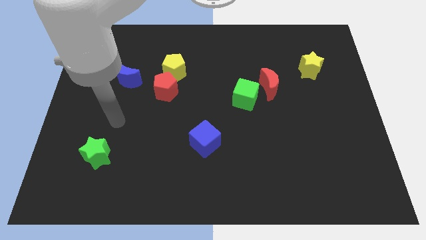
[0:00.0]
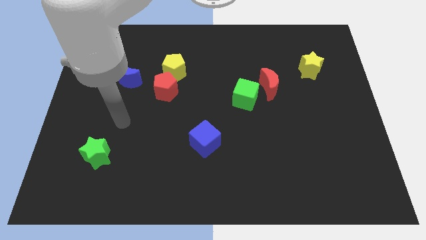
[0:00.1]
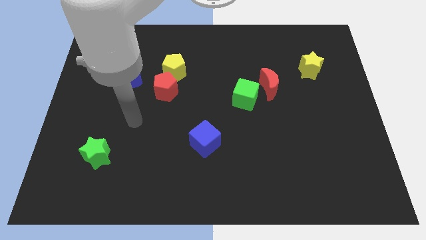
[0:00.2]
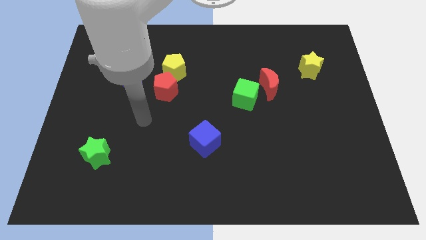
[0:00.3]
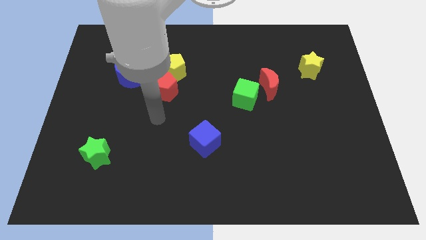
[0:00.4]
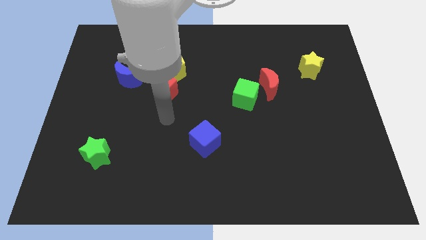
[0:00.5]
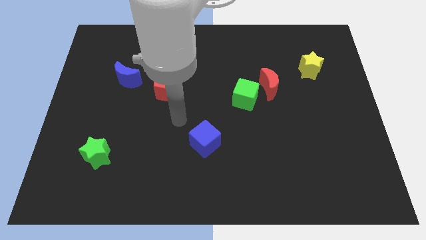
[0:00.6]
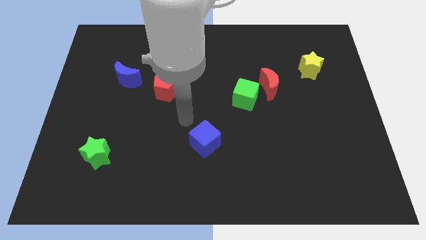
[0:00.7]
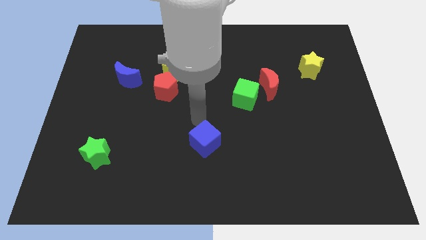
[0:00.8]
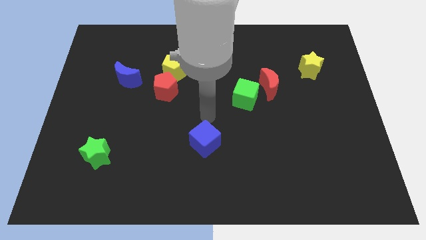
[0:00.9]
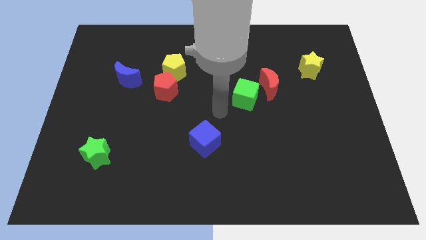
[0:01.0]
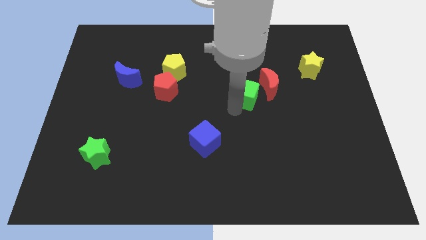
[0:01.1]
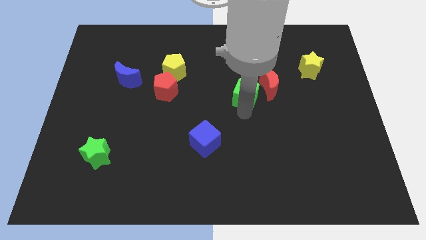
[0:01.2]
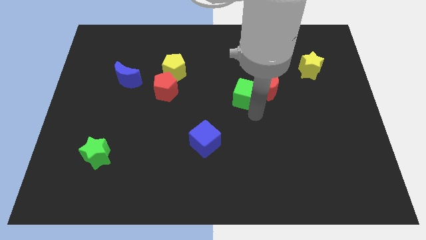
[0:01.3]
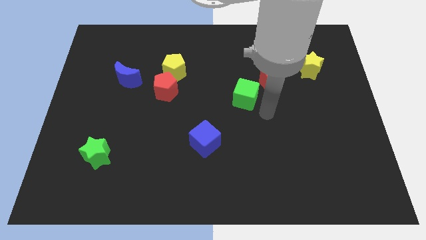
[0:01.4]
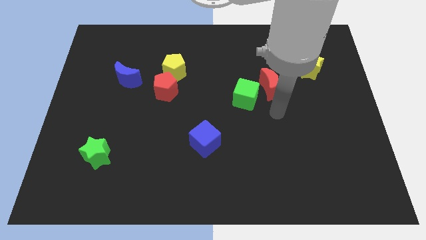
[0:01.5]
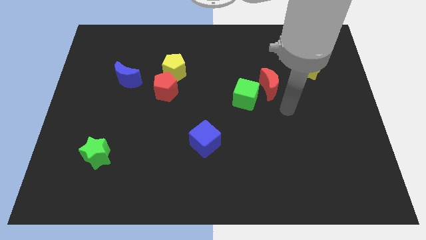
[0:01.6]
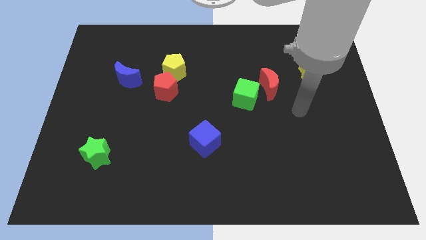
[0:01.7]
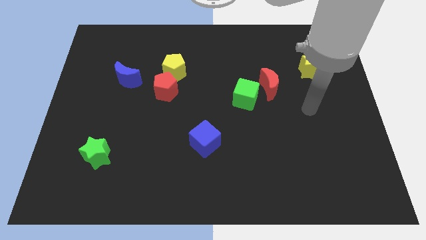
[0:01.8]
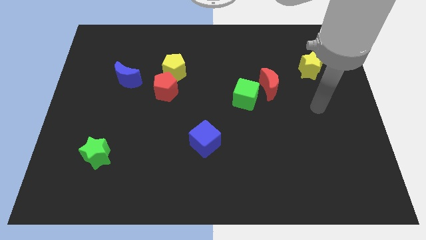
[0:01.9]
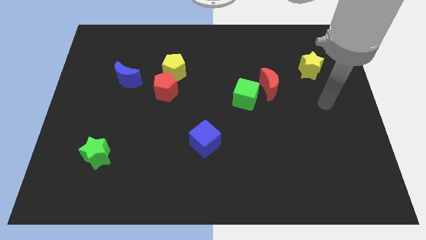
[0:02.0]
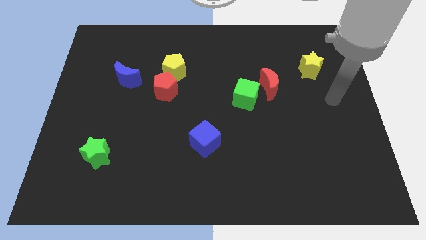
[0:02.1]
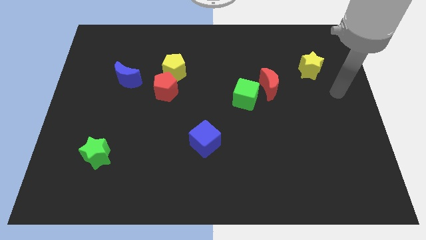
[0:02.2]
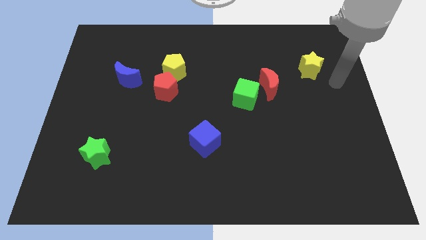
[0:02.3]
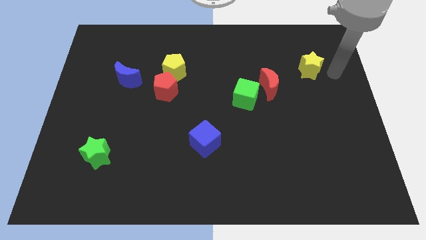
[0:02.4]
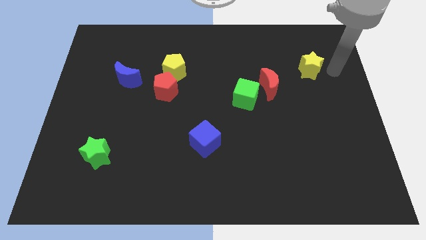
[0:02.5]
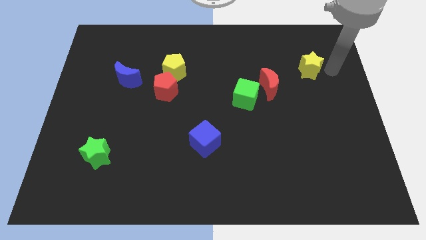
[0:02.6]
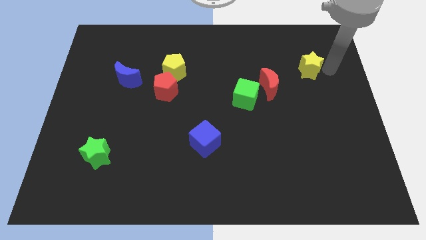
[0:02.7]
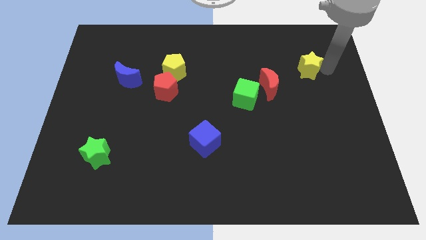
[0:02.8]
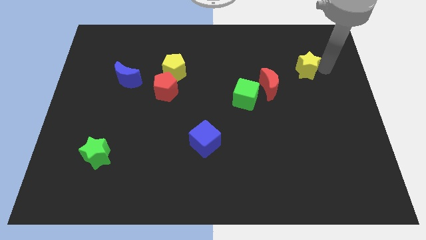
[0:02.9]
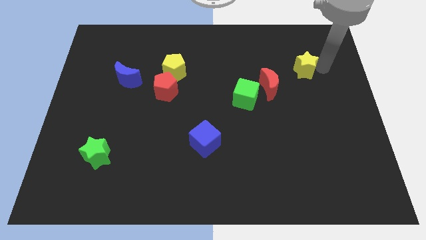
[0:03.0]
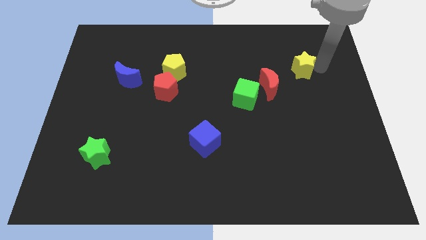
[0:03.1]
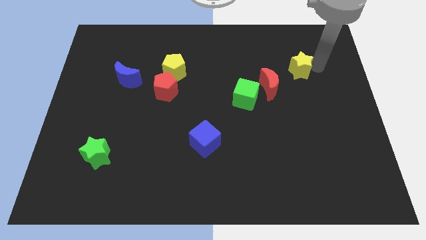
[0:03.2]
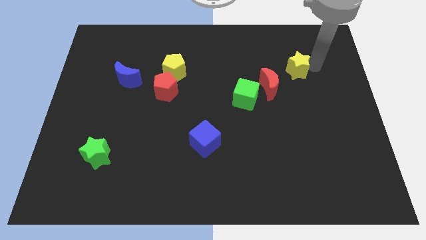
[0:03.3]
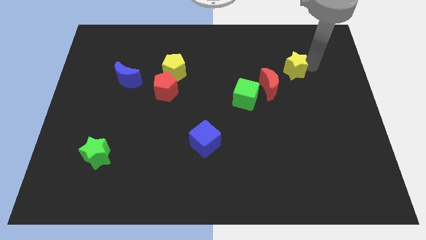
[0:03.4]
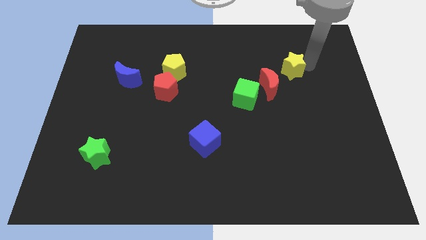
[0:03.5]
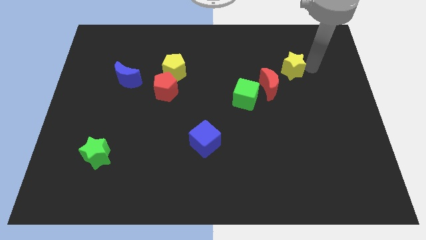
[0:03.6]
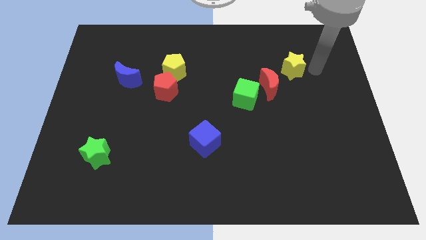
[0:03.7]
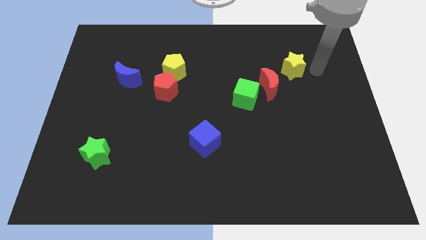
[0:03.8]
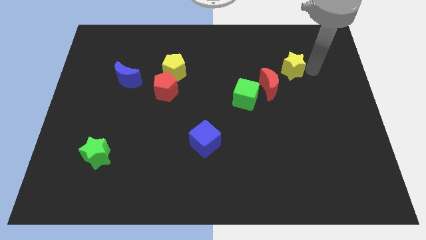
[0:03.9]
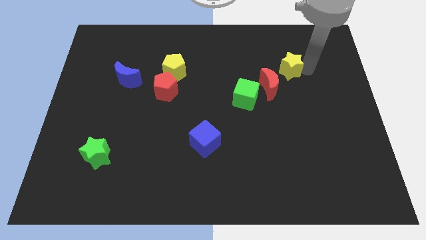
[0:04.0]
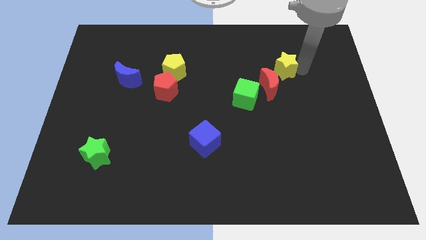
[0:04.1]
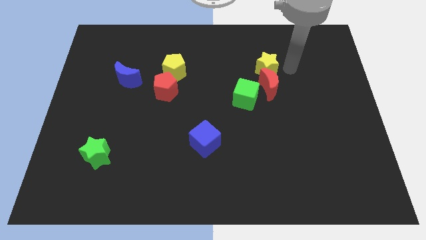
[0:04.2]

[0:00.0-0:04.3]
slide the yellow star to the left a little

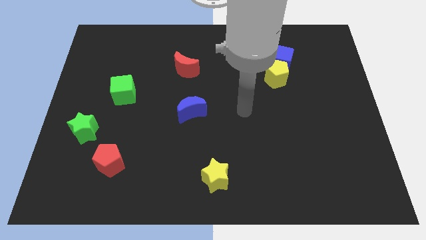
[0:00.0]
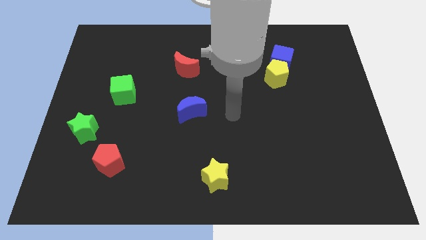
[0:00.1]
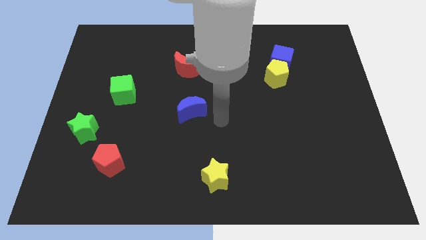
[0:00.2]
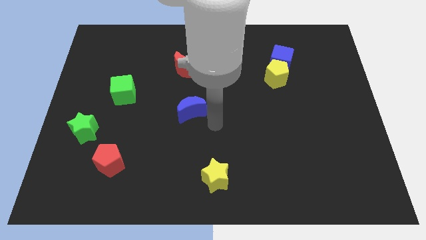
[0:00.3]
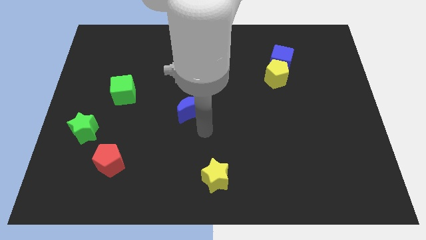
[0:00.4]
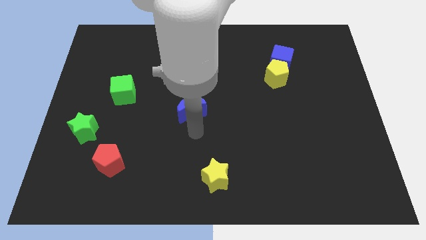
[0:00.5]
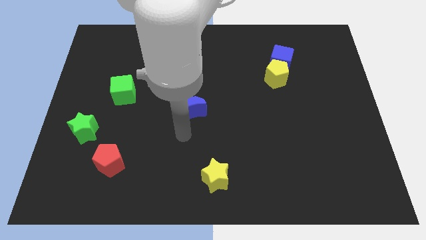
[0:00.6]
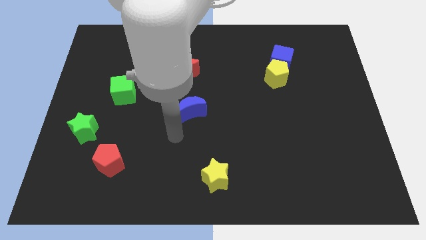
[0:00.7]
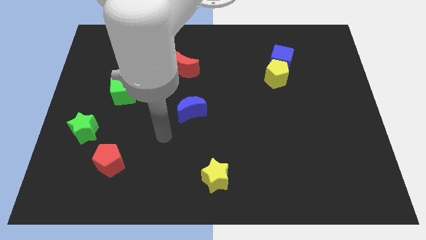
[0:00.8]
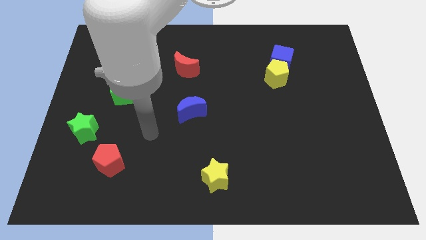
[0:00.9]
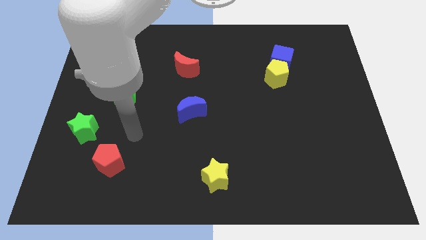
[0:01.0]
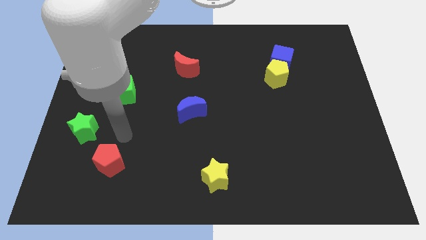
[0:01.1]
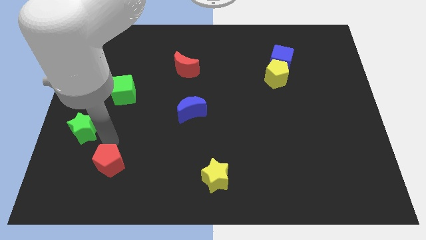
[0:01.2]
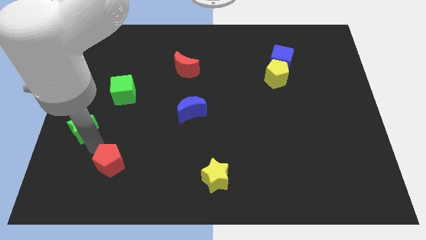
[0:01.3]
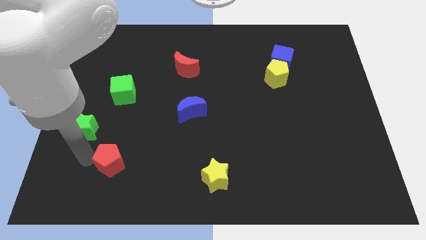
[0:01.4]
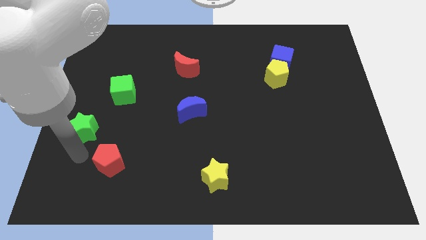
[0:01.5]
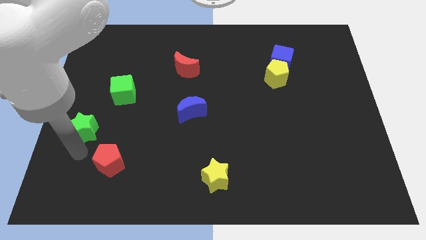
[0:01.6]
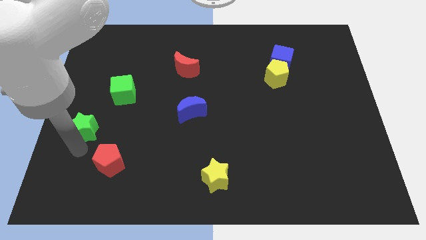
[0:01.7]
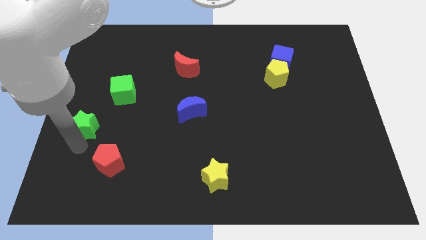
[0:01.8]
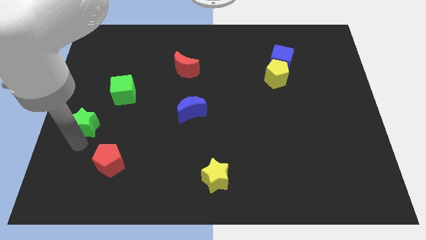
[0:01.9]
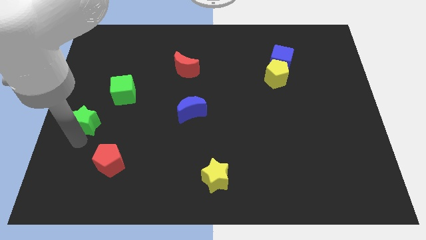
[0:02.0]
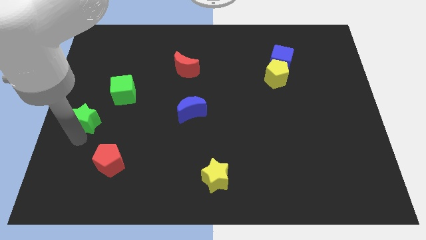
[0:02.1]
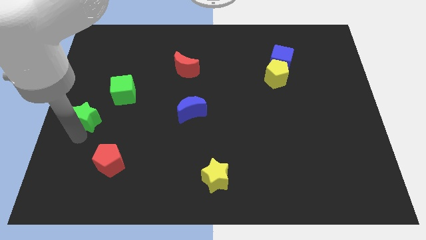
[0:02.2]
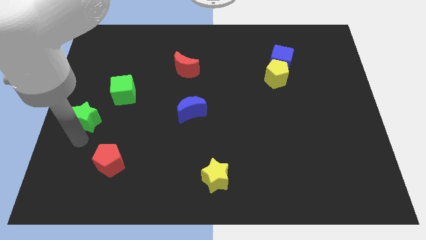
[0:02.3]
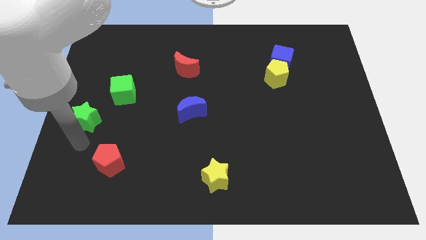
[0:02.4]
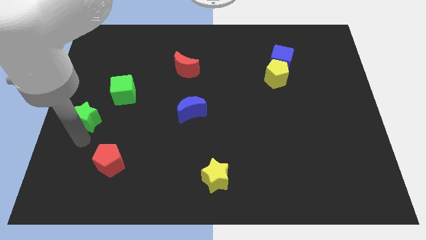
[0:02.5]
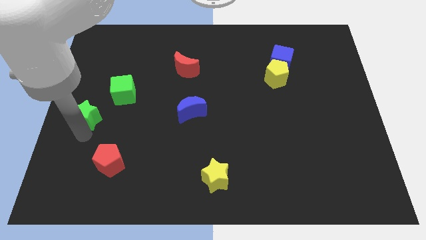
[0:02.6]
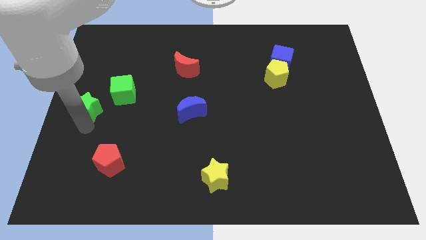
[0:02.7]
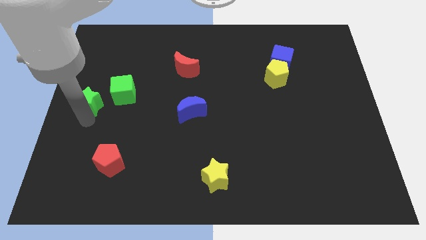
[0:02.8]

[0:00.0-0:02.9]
push the green star a little bit up

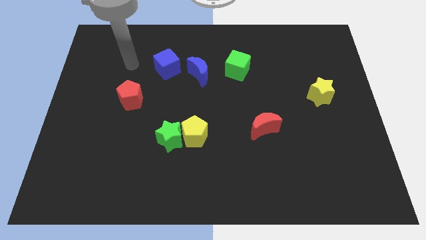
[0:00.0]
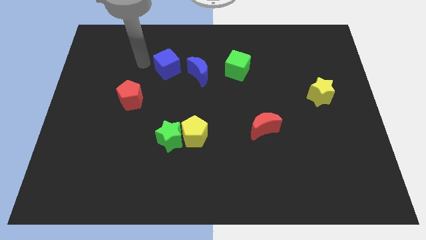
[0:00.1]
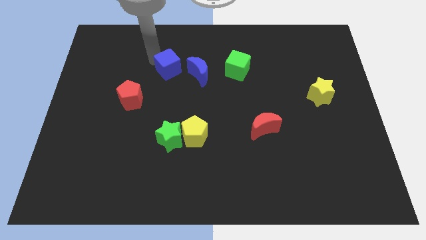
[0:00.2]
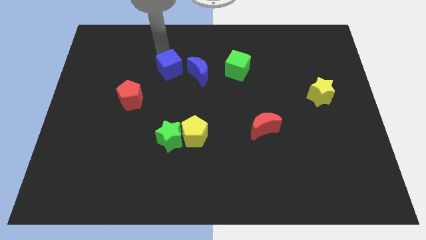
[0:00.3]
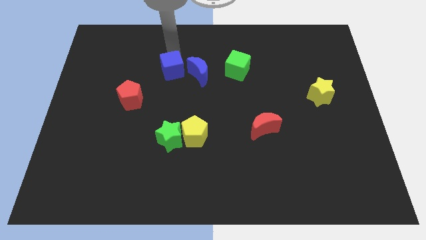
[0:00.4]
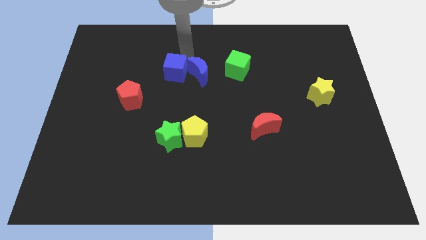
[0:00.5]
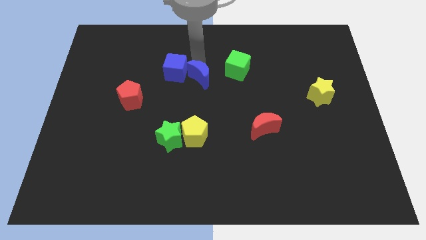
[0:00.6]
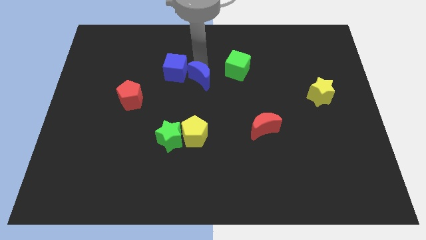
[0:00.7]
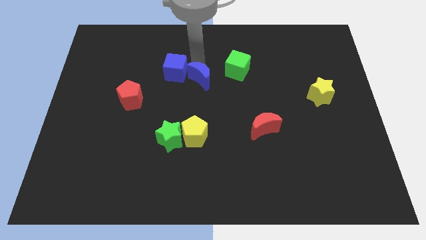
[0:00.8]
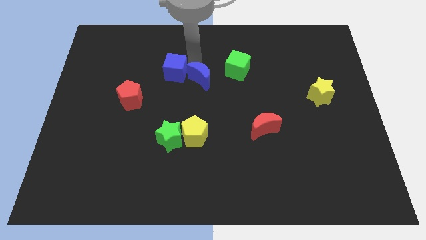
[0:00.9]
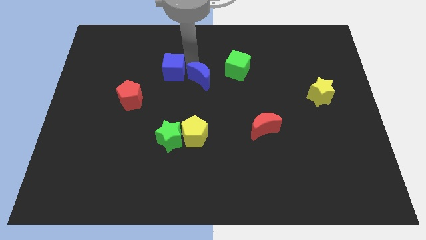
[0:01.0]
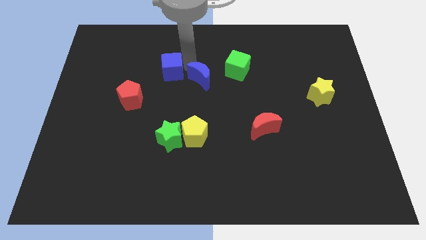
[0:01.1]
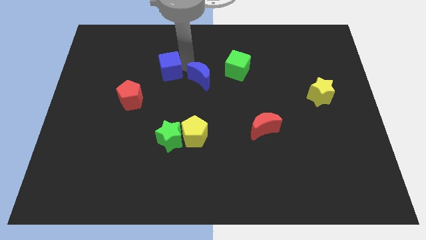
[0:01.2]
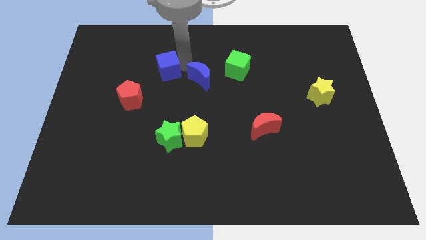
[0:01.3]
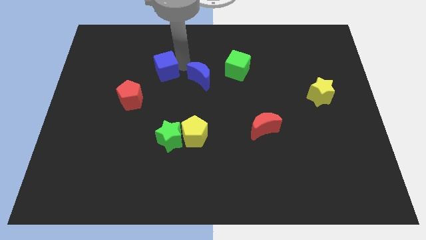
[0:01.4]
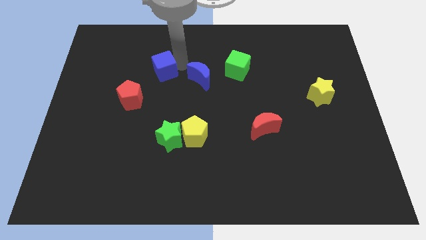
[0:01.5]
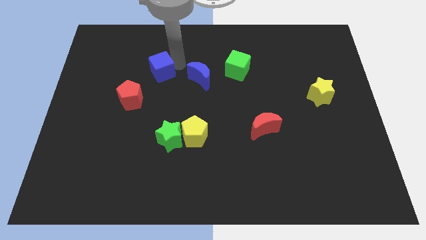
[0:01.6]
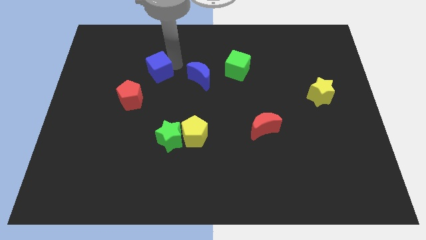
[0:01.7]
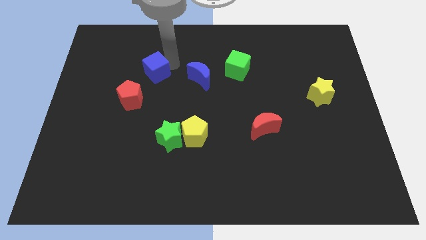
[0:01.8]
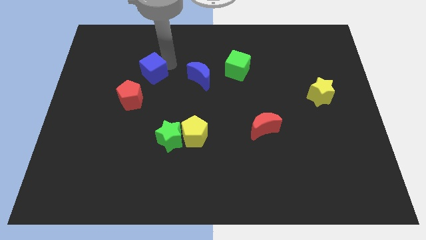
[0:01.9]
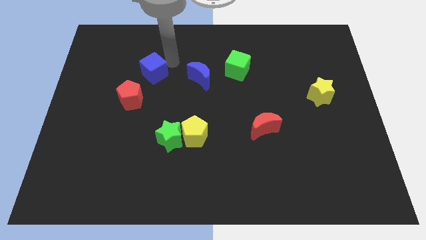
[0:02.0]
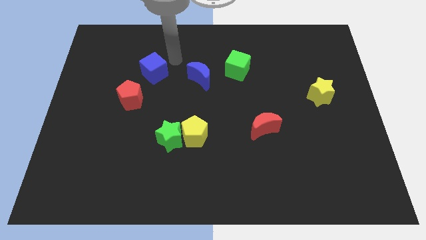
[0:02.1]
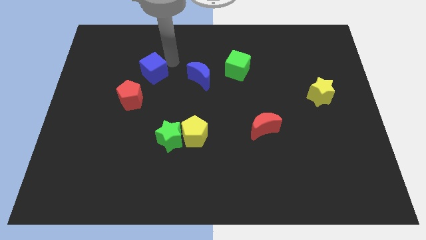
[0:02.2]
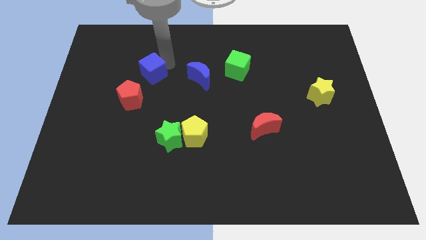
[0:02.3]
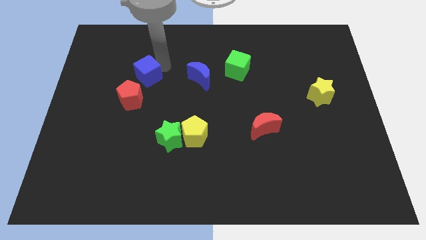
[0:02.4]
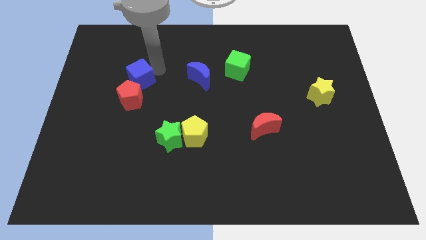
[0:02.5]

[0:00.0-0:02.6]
move the blue cube down and left a little bit
